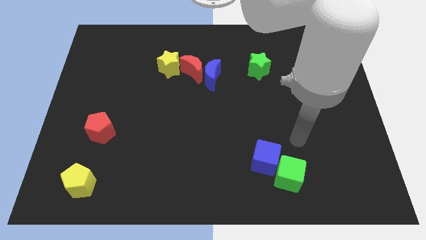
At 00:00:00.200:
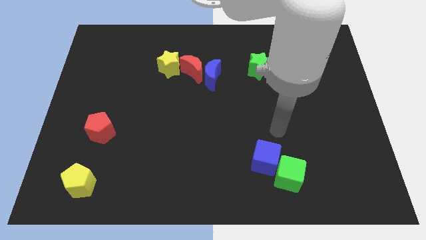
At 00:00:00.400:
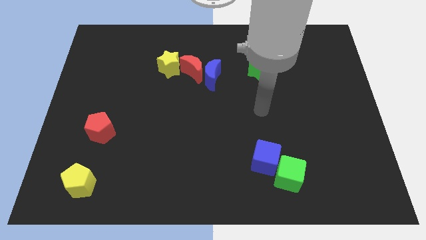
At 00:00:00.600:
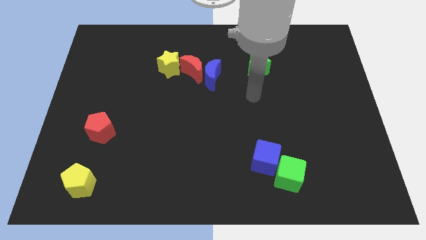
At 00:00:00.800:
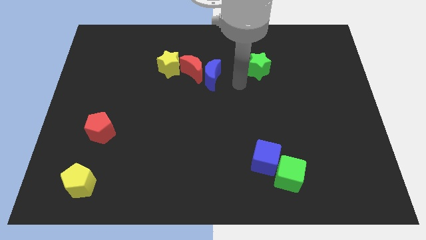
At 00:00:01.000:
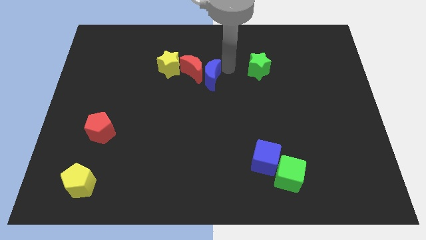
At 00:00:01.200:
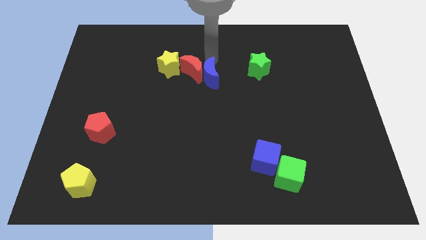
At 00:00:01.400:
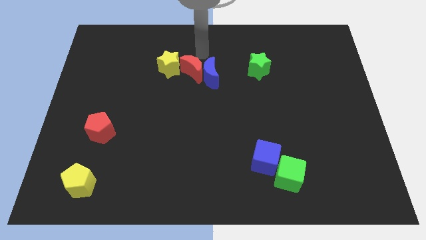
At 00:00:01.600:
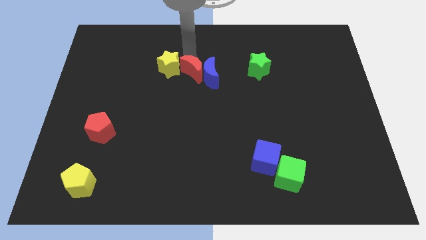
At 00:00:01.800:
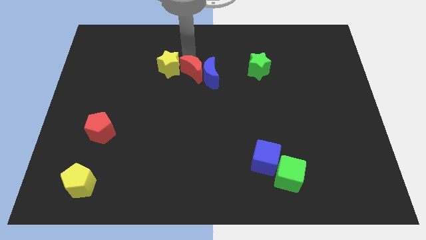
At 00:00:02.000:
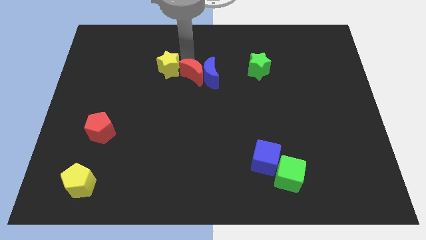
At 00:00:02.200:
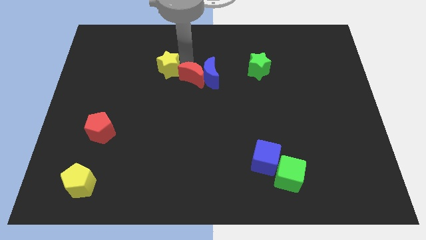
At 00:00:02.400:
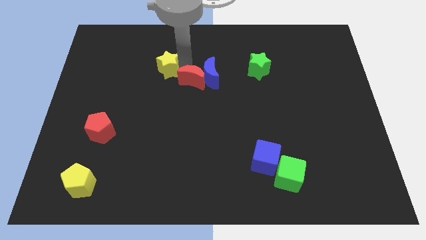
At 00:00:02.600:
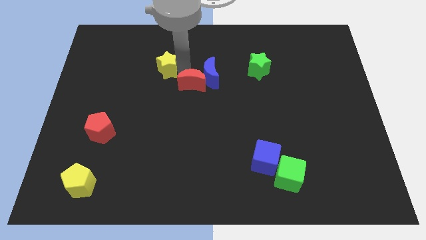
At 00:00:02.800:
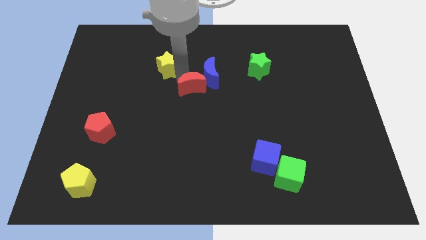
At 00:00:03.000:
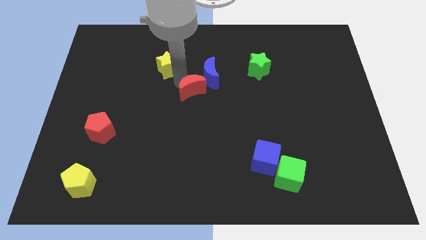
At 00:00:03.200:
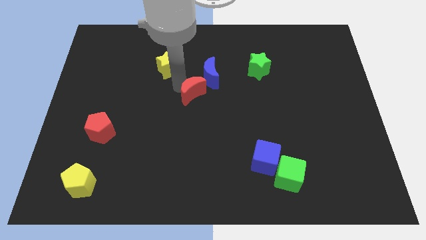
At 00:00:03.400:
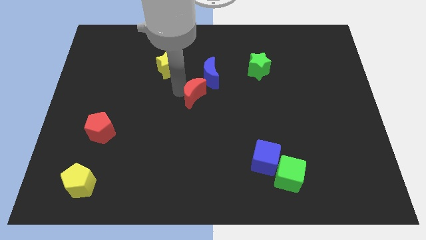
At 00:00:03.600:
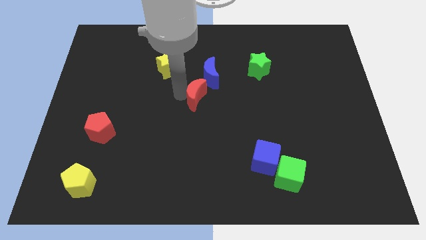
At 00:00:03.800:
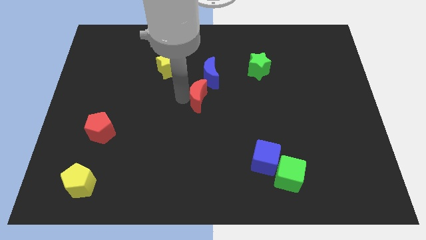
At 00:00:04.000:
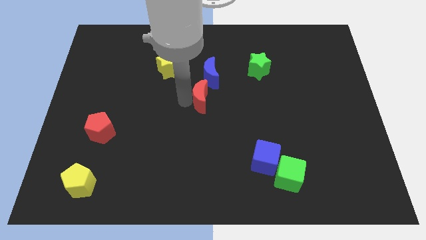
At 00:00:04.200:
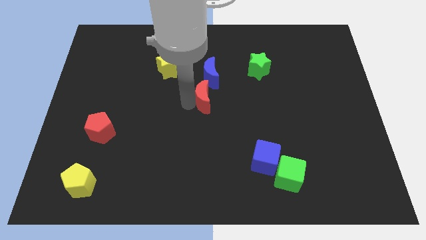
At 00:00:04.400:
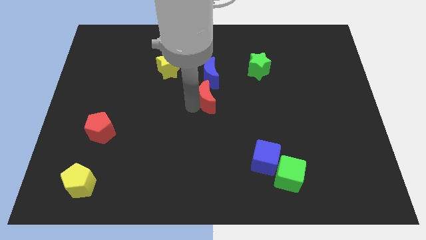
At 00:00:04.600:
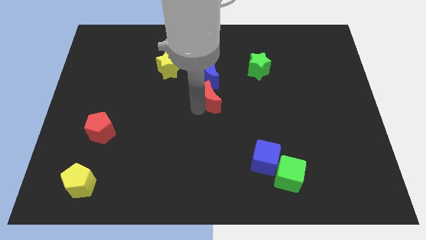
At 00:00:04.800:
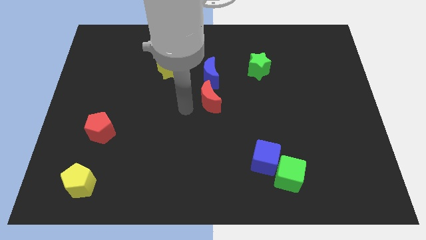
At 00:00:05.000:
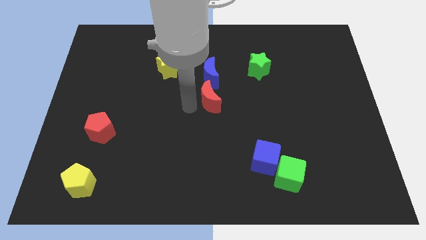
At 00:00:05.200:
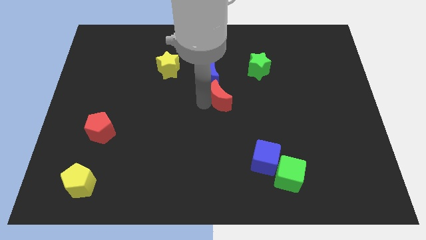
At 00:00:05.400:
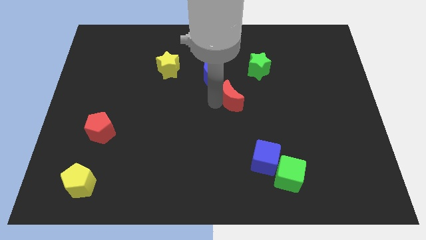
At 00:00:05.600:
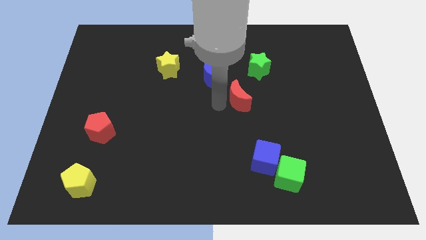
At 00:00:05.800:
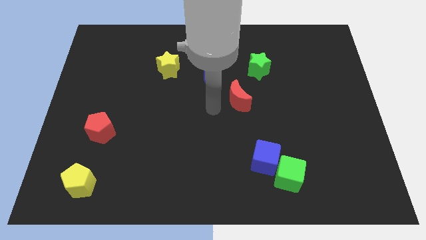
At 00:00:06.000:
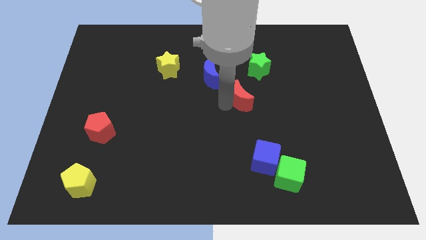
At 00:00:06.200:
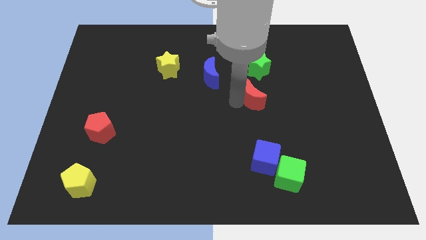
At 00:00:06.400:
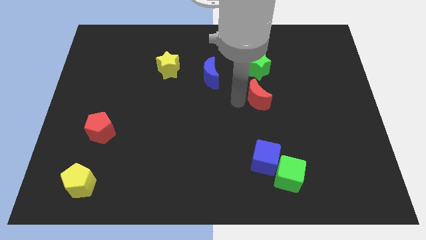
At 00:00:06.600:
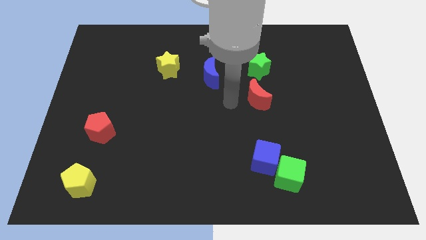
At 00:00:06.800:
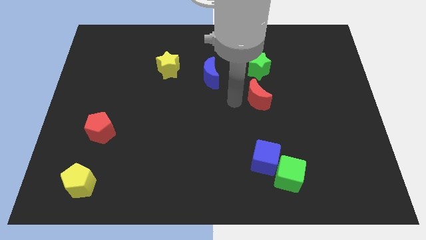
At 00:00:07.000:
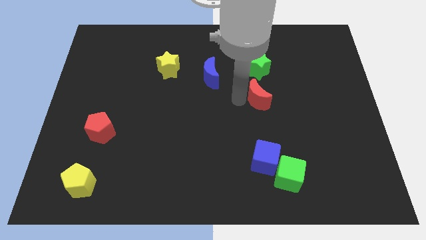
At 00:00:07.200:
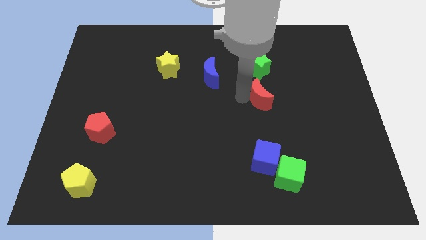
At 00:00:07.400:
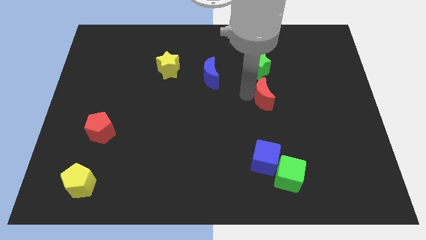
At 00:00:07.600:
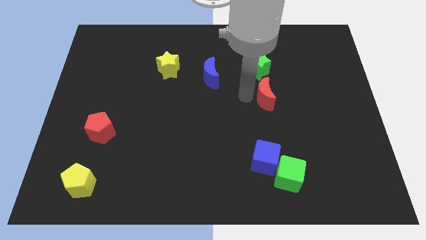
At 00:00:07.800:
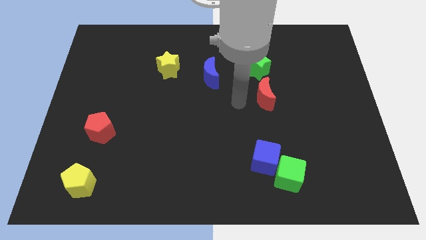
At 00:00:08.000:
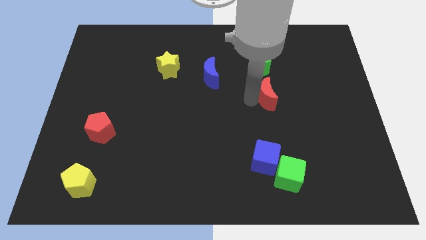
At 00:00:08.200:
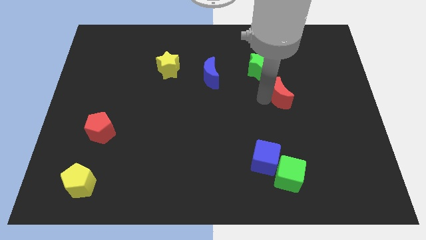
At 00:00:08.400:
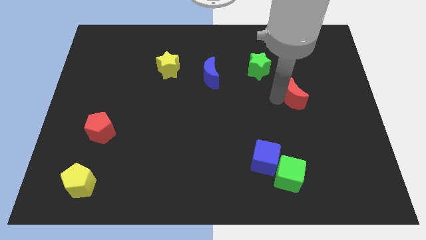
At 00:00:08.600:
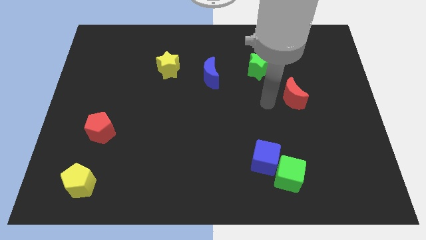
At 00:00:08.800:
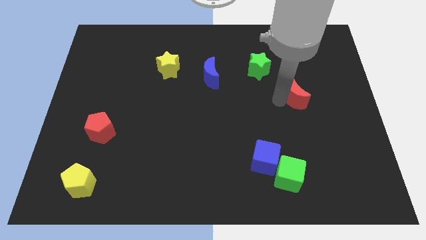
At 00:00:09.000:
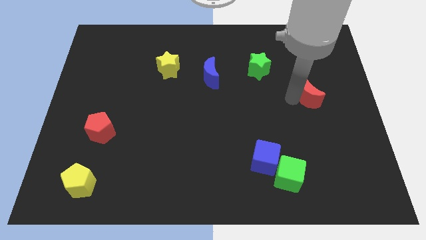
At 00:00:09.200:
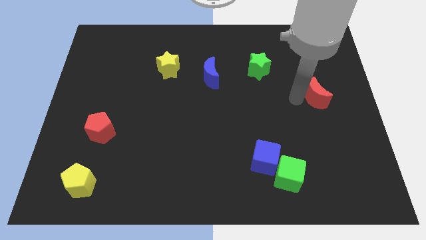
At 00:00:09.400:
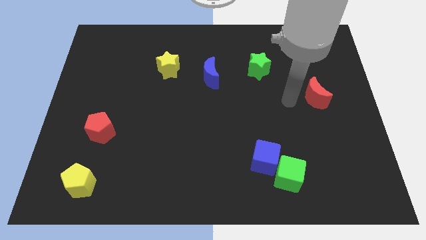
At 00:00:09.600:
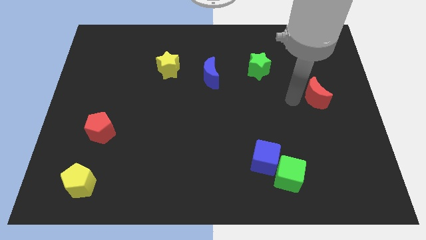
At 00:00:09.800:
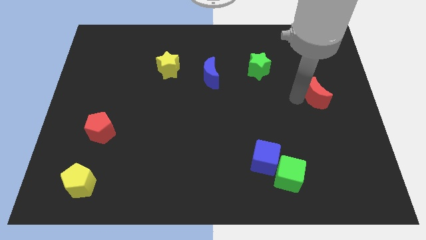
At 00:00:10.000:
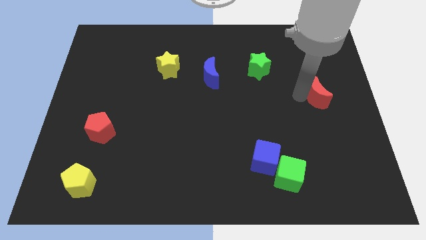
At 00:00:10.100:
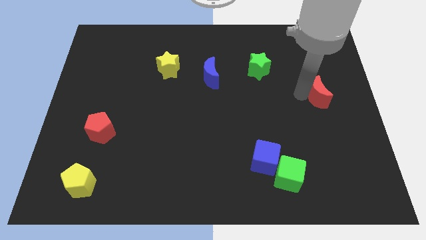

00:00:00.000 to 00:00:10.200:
slide the red moon to the right side of the board

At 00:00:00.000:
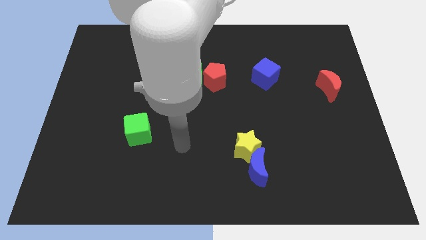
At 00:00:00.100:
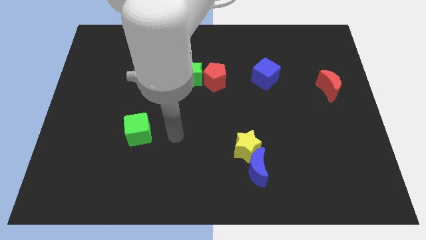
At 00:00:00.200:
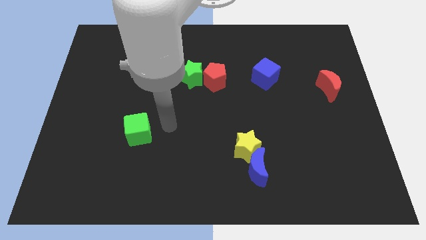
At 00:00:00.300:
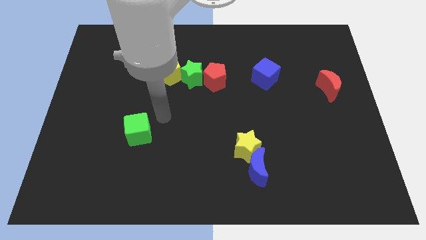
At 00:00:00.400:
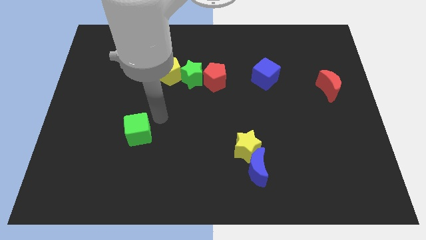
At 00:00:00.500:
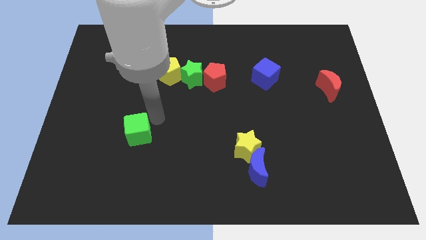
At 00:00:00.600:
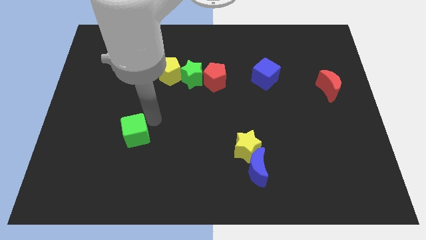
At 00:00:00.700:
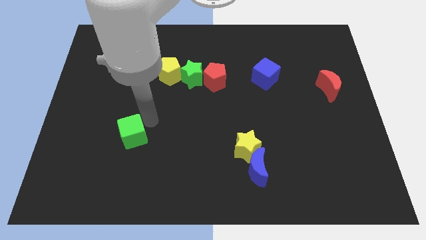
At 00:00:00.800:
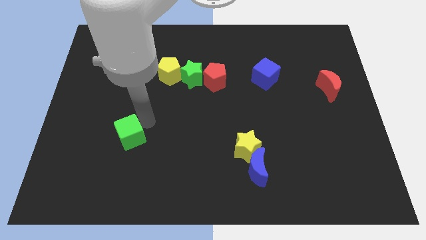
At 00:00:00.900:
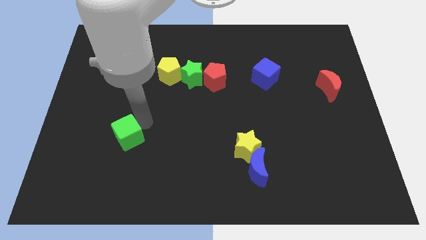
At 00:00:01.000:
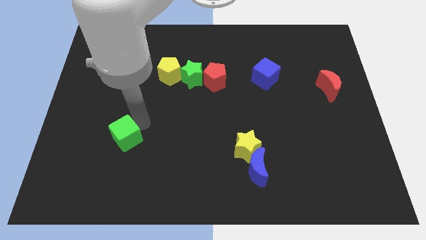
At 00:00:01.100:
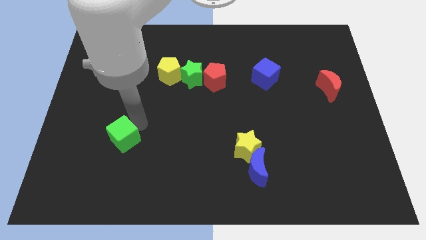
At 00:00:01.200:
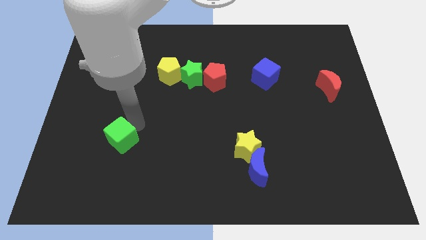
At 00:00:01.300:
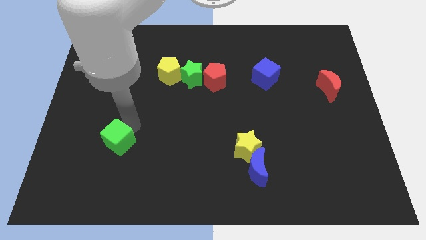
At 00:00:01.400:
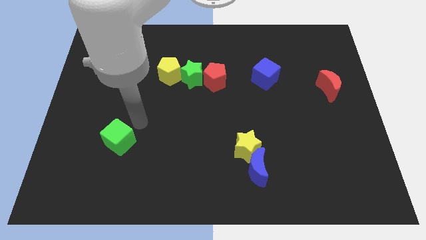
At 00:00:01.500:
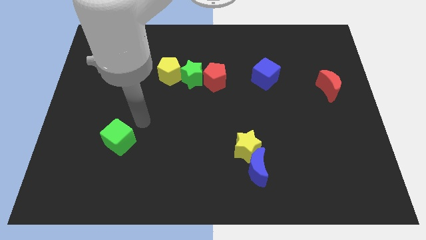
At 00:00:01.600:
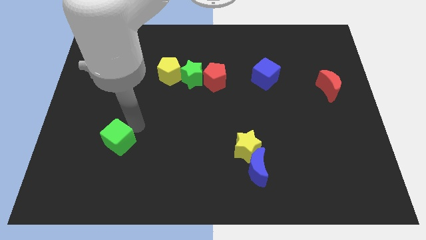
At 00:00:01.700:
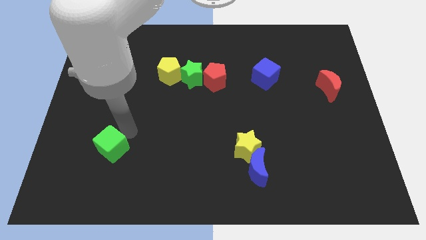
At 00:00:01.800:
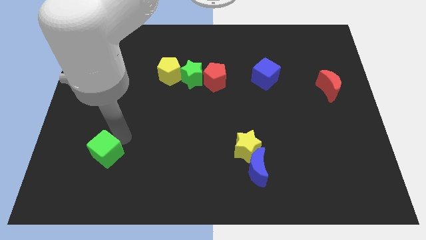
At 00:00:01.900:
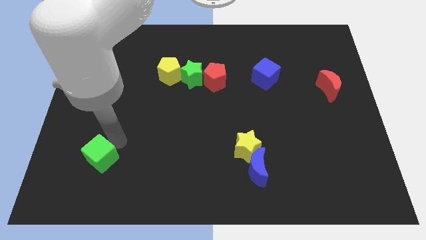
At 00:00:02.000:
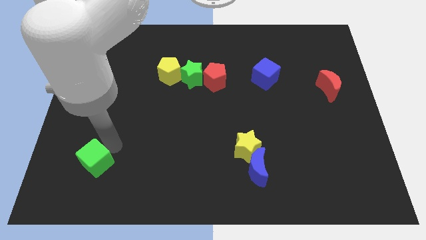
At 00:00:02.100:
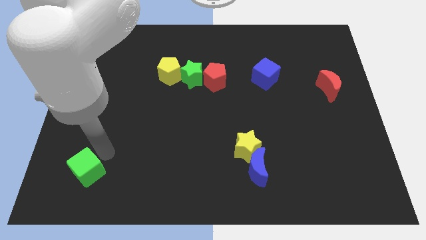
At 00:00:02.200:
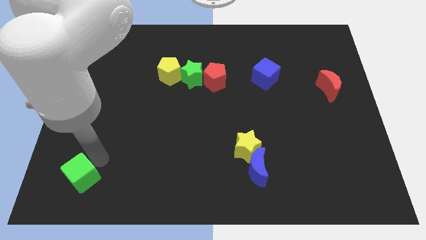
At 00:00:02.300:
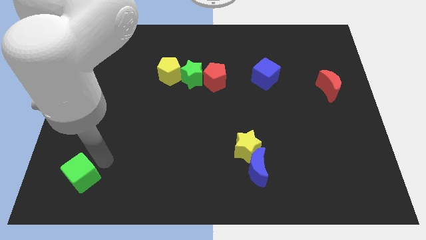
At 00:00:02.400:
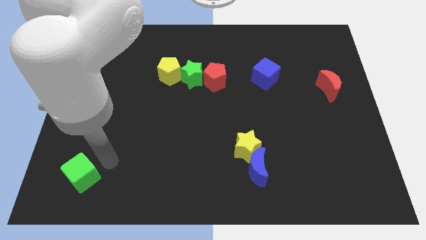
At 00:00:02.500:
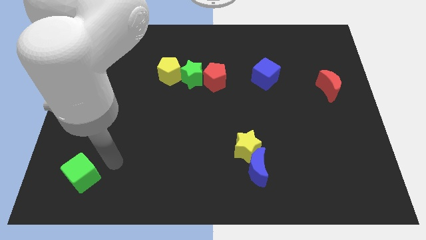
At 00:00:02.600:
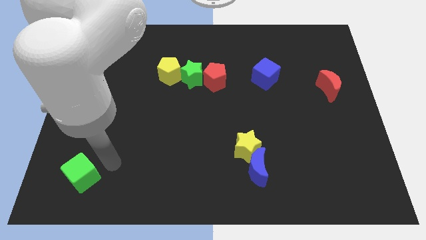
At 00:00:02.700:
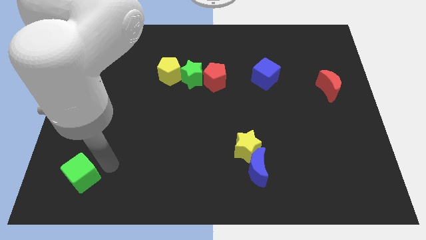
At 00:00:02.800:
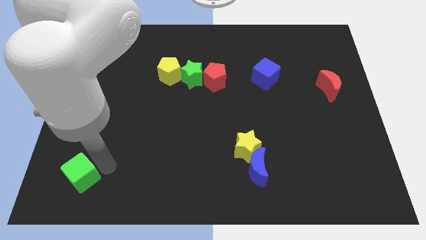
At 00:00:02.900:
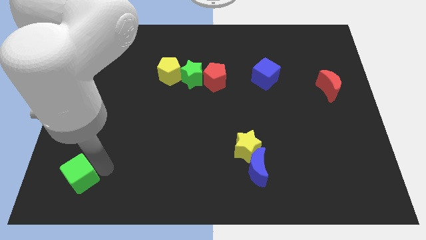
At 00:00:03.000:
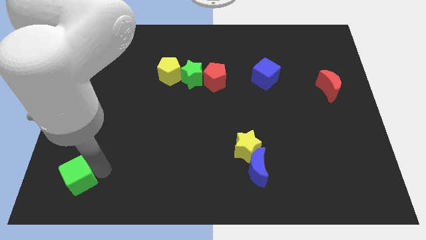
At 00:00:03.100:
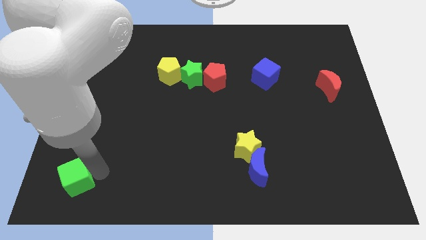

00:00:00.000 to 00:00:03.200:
push the green cube to the bottom left
